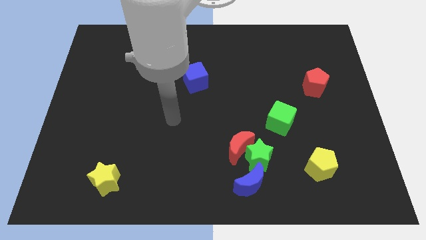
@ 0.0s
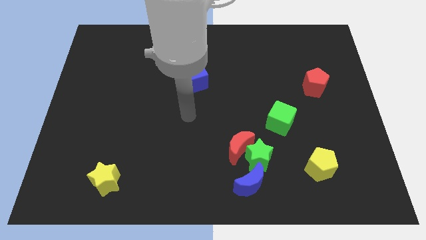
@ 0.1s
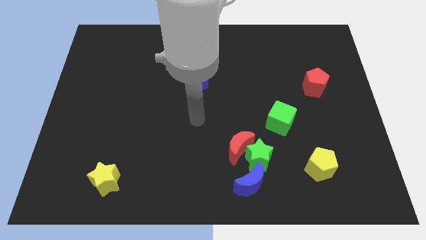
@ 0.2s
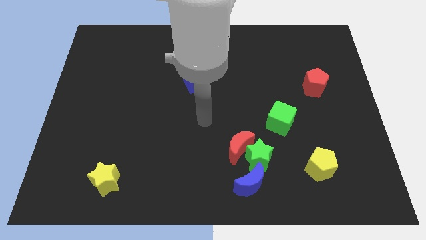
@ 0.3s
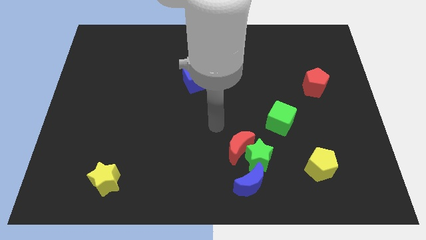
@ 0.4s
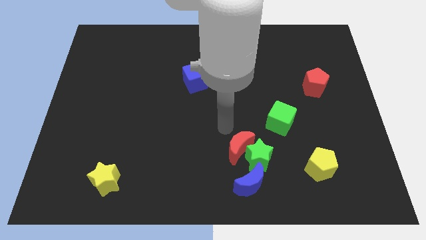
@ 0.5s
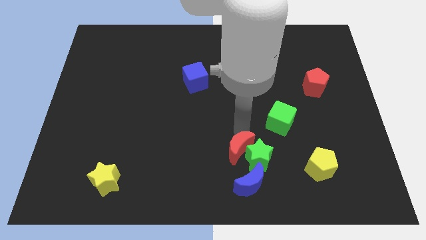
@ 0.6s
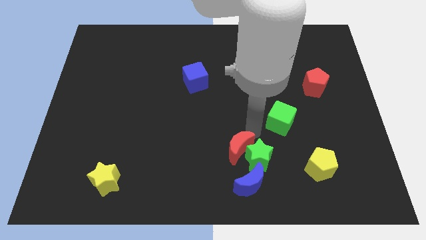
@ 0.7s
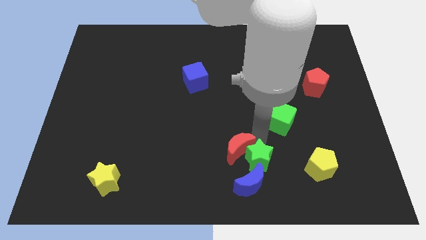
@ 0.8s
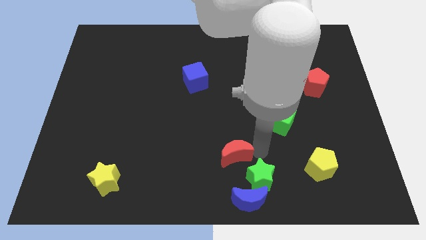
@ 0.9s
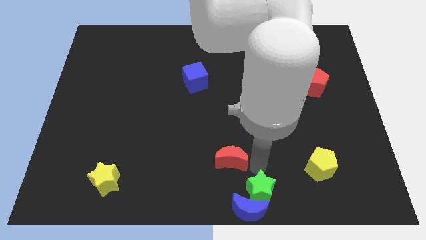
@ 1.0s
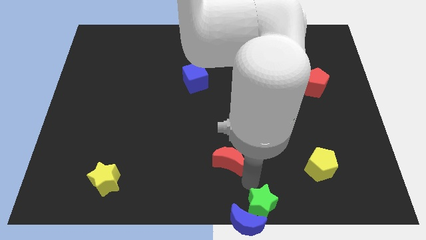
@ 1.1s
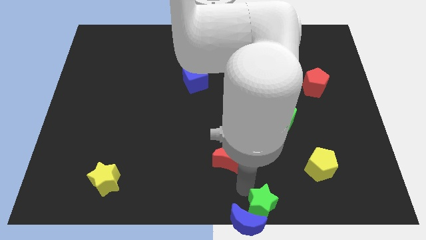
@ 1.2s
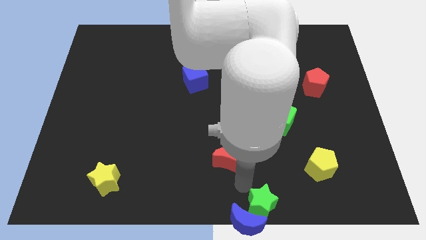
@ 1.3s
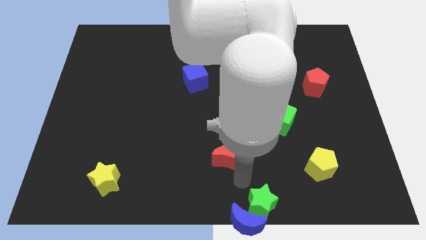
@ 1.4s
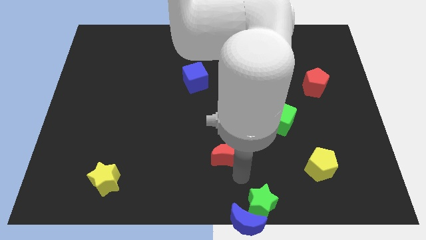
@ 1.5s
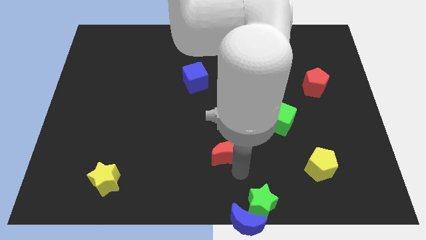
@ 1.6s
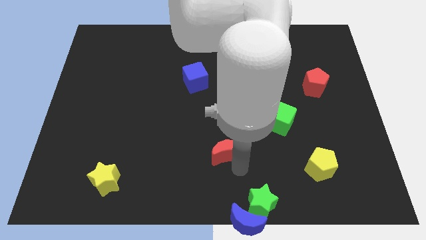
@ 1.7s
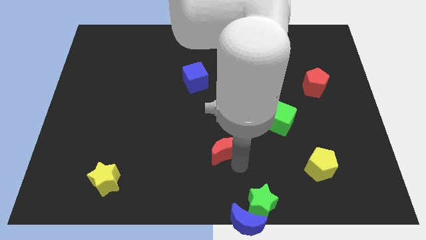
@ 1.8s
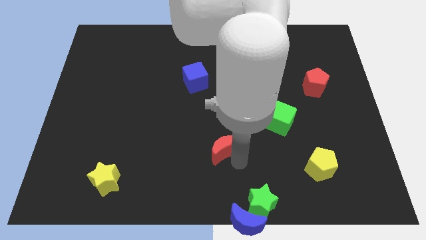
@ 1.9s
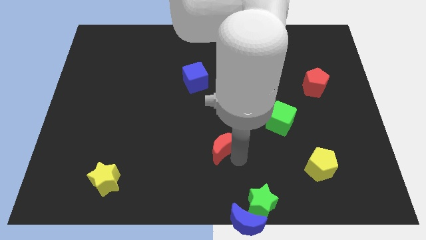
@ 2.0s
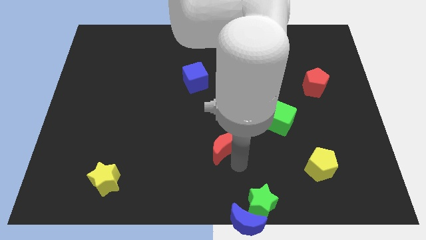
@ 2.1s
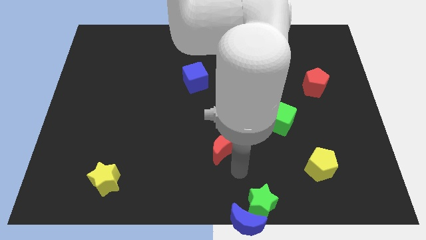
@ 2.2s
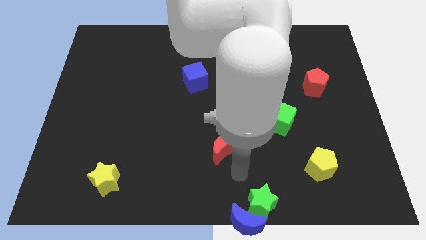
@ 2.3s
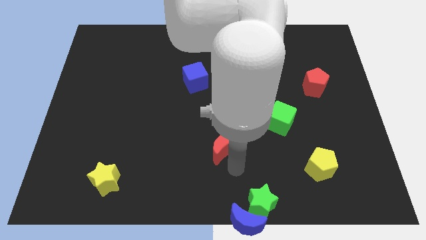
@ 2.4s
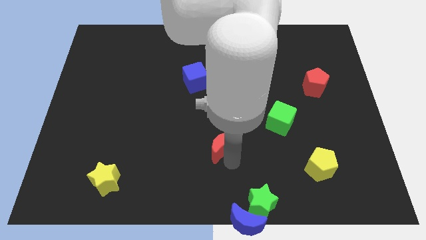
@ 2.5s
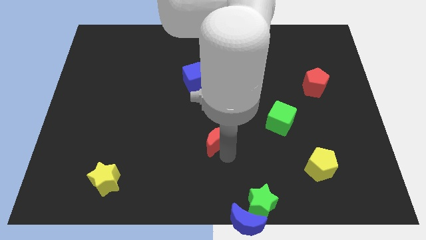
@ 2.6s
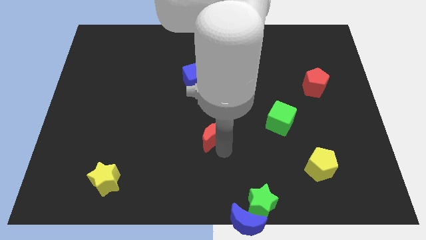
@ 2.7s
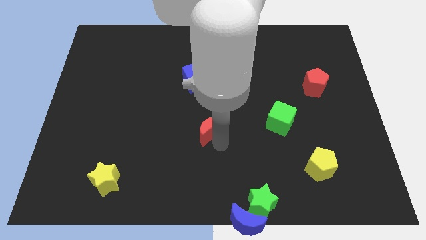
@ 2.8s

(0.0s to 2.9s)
move the red moon diagonally upwards and left slightly

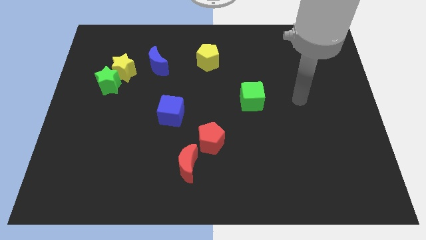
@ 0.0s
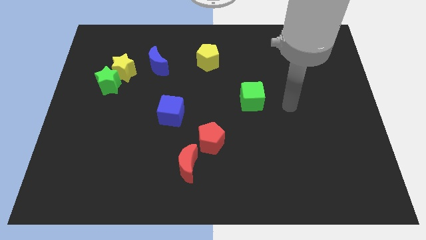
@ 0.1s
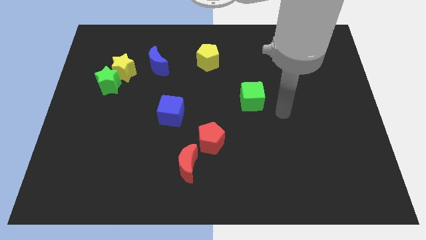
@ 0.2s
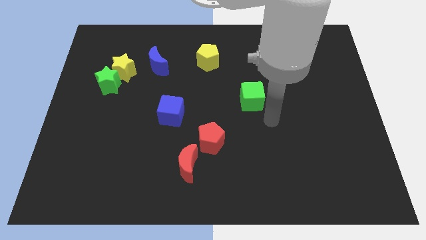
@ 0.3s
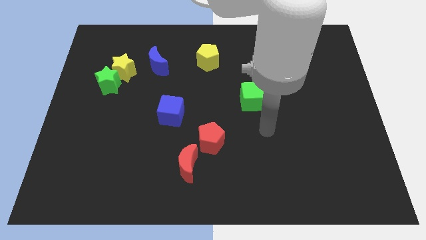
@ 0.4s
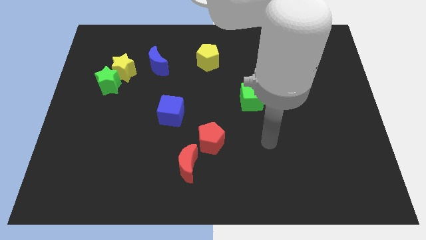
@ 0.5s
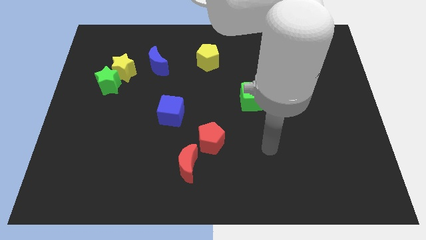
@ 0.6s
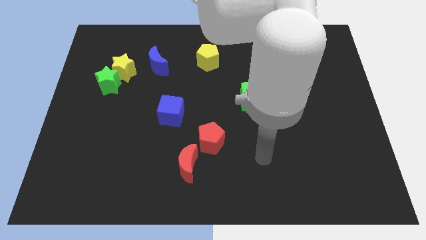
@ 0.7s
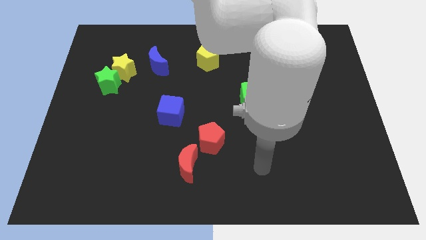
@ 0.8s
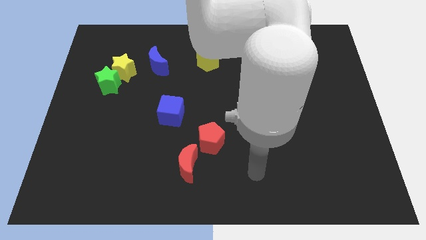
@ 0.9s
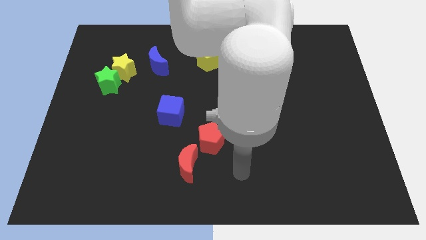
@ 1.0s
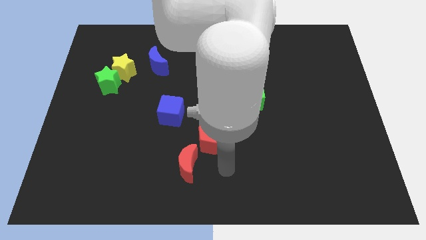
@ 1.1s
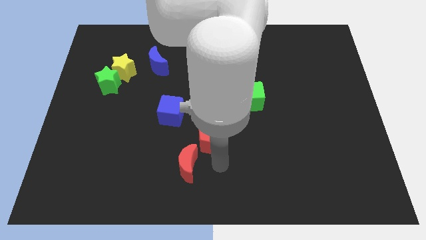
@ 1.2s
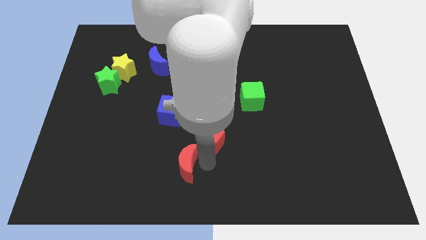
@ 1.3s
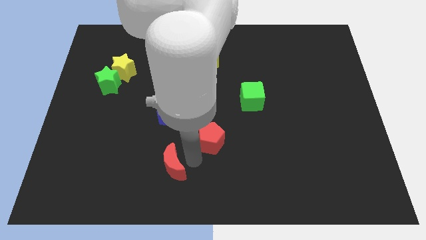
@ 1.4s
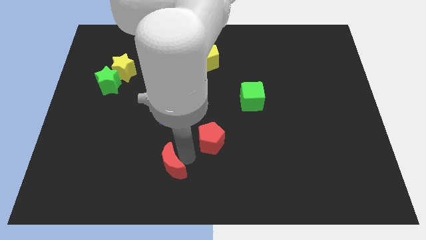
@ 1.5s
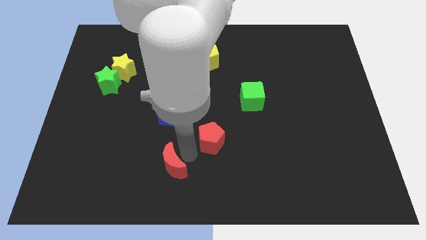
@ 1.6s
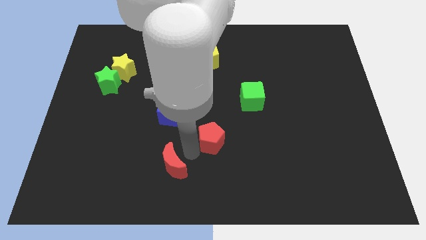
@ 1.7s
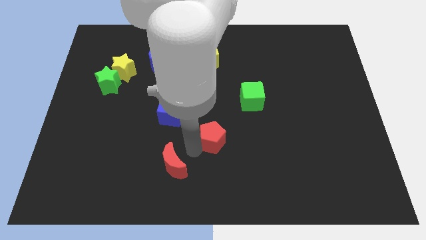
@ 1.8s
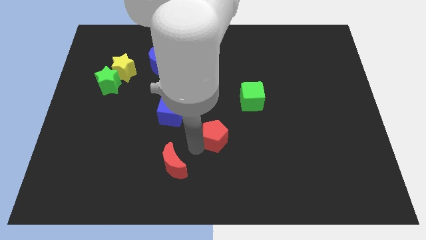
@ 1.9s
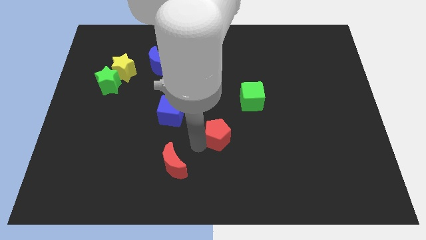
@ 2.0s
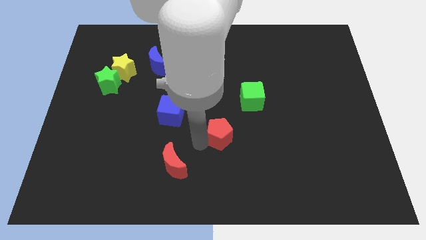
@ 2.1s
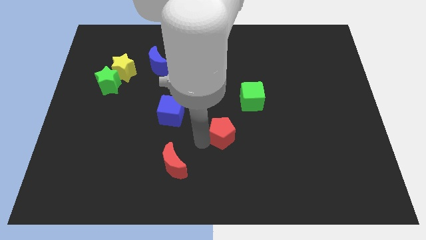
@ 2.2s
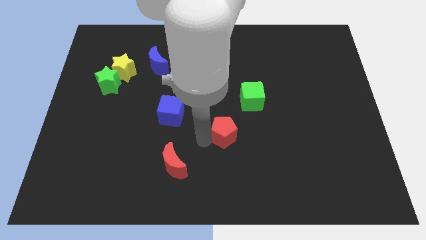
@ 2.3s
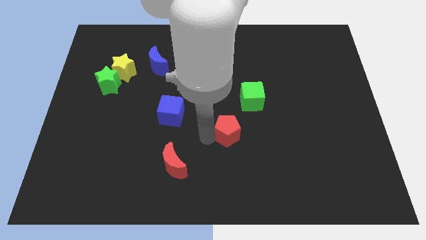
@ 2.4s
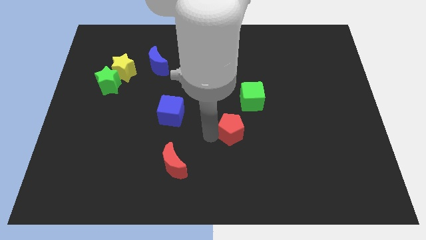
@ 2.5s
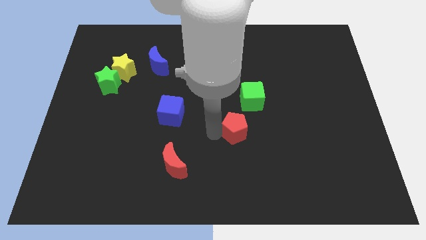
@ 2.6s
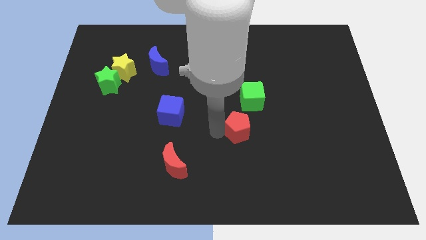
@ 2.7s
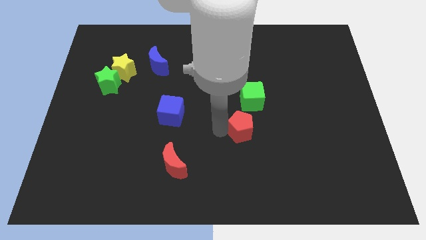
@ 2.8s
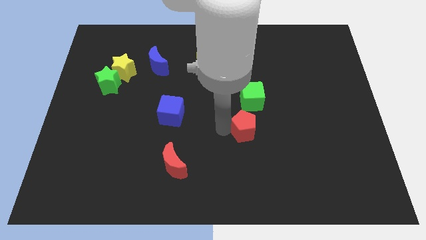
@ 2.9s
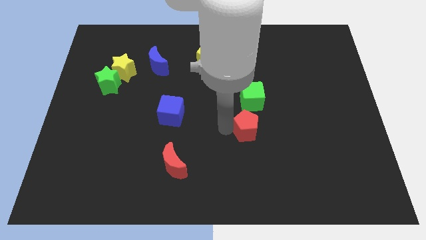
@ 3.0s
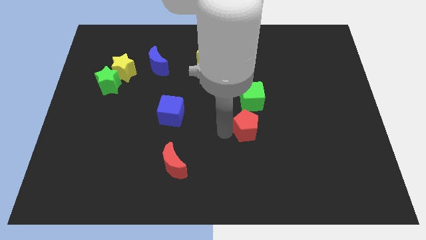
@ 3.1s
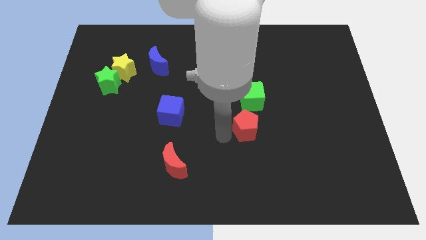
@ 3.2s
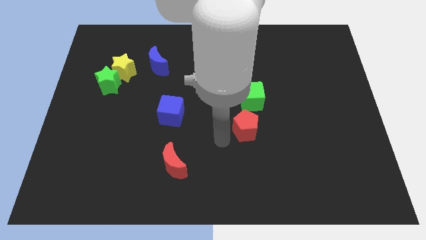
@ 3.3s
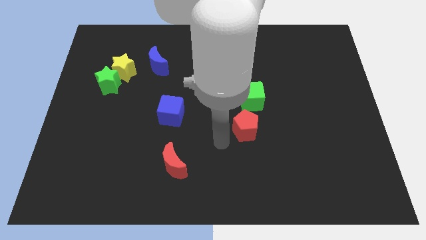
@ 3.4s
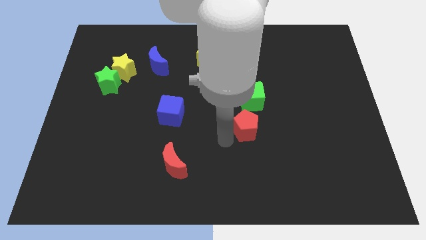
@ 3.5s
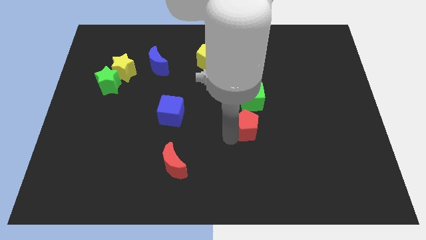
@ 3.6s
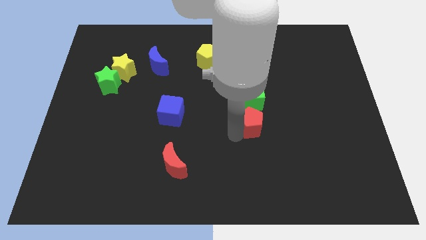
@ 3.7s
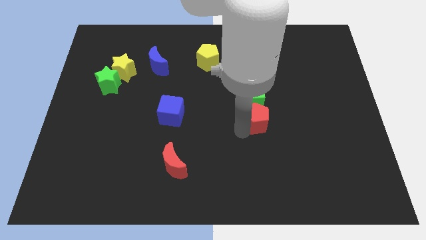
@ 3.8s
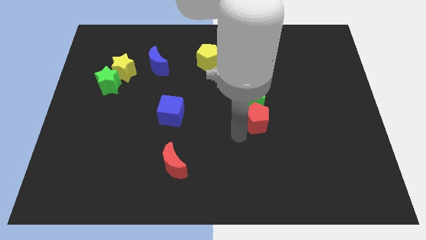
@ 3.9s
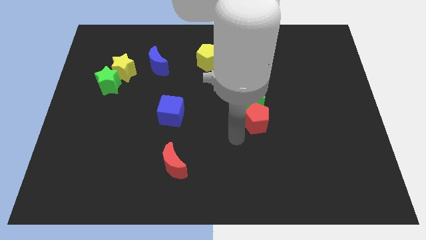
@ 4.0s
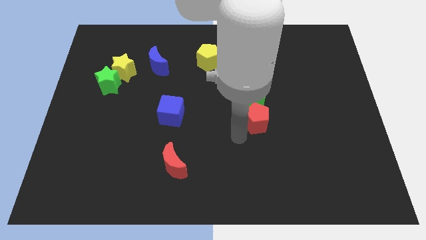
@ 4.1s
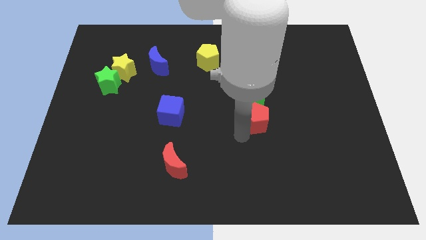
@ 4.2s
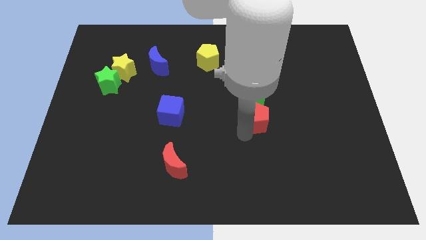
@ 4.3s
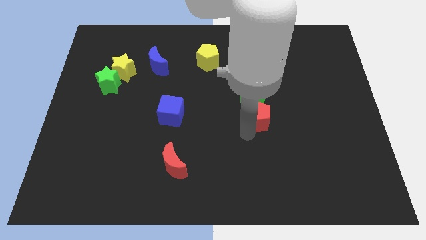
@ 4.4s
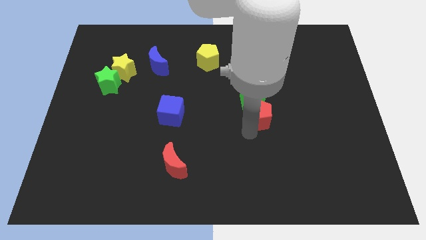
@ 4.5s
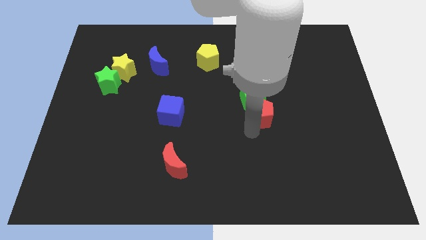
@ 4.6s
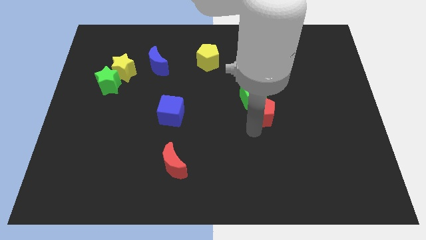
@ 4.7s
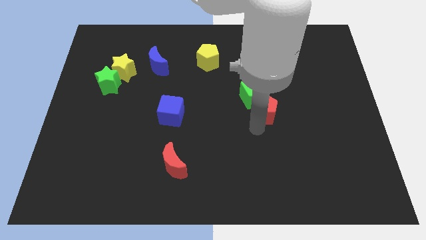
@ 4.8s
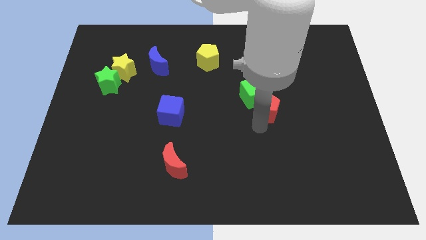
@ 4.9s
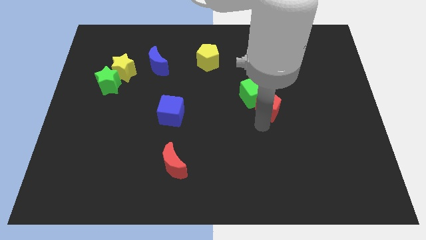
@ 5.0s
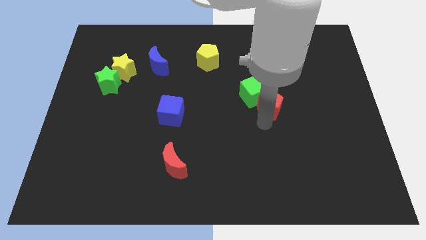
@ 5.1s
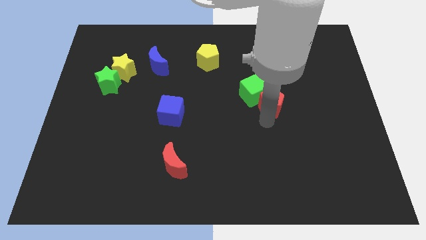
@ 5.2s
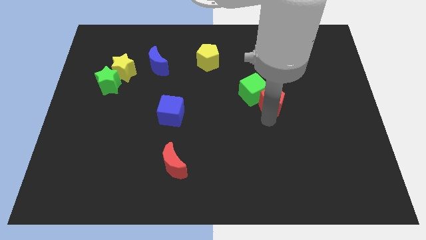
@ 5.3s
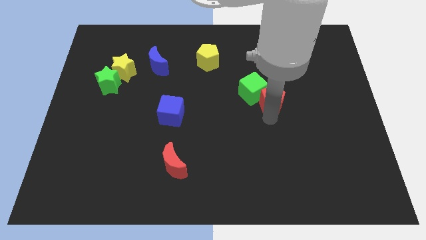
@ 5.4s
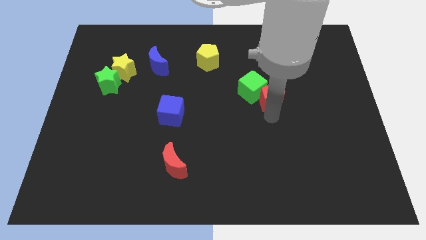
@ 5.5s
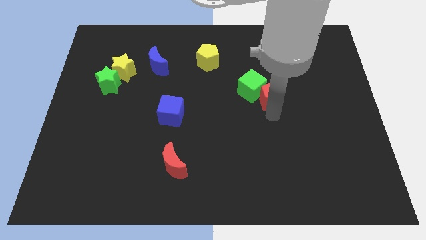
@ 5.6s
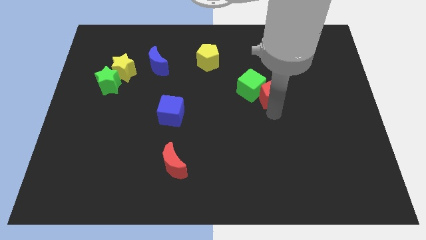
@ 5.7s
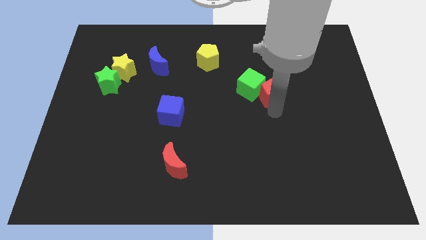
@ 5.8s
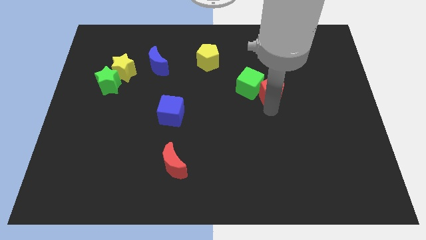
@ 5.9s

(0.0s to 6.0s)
push the red pentagon up and to the right diagonally
